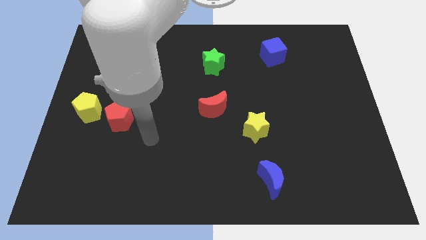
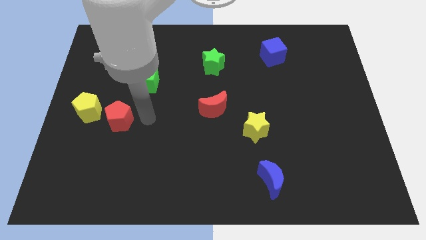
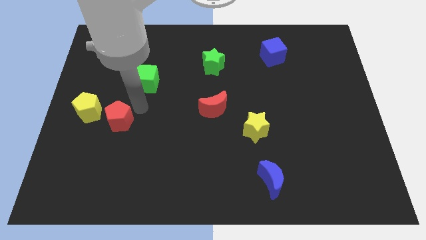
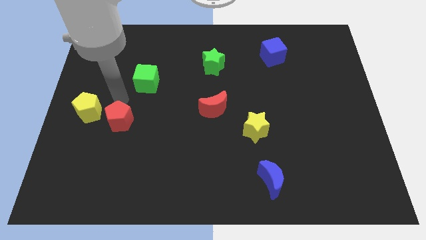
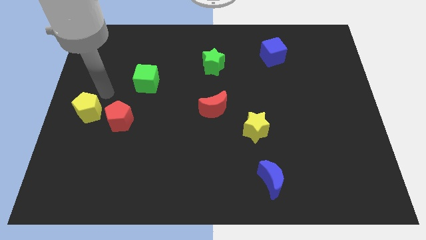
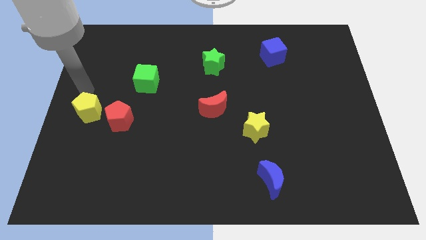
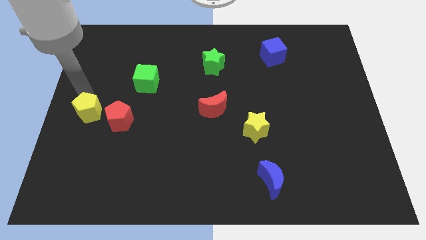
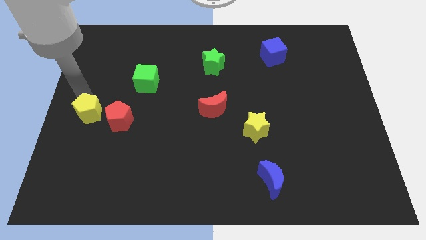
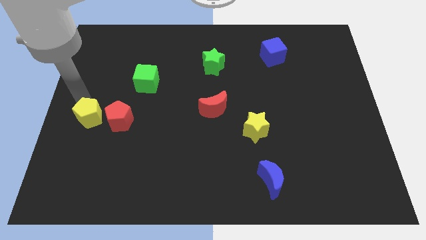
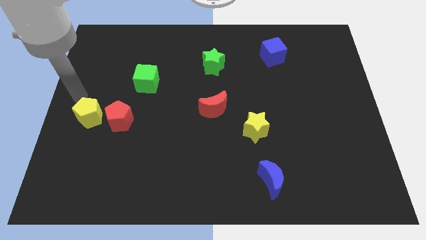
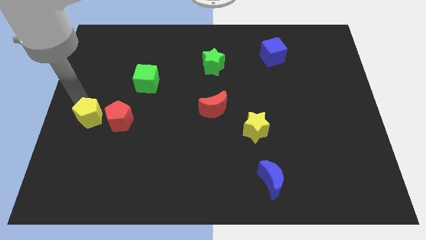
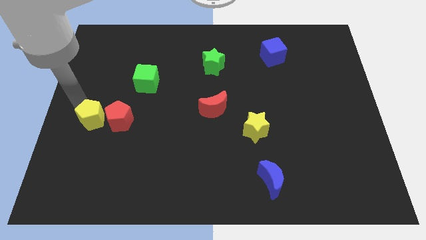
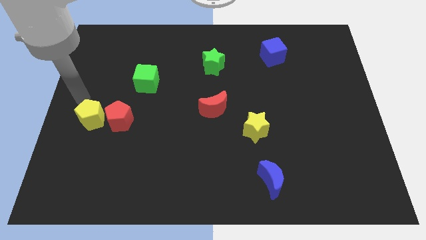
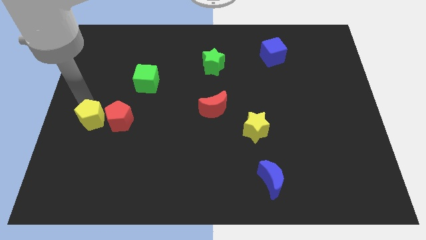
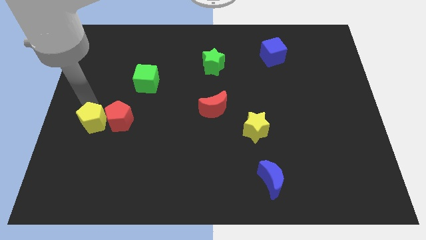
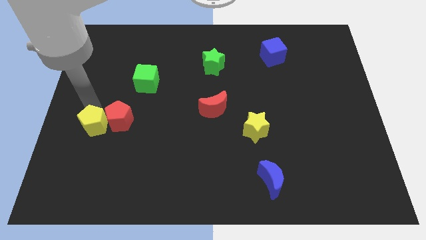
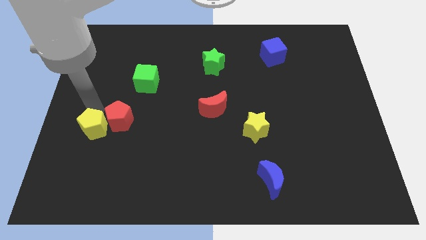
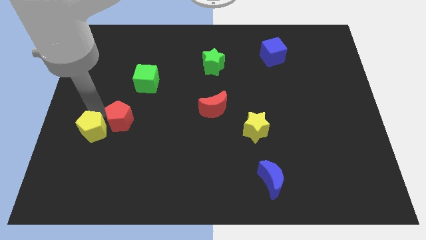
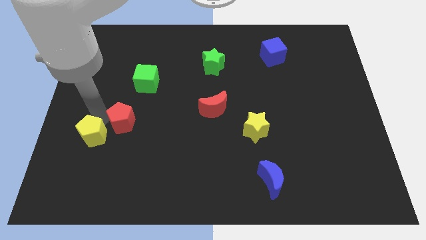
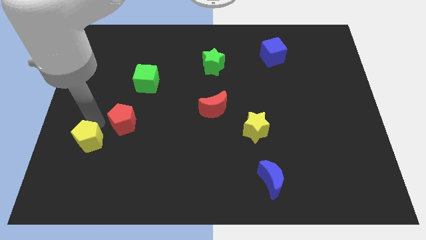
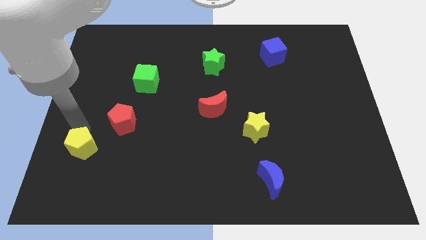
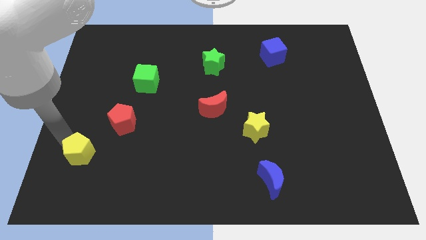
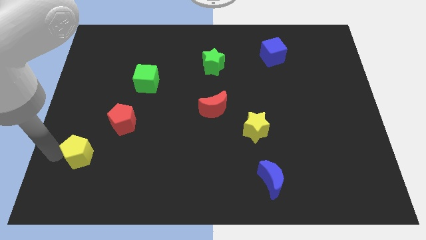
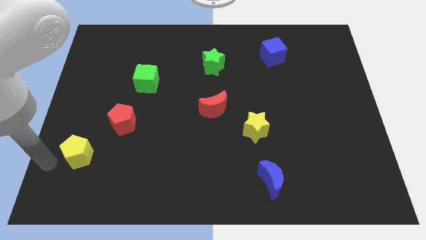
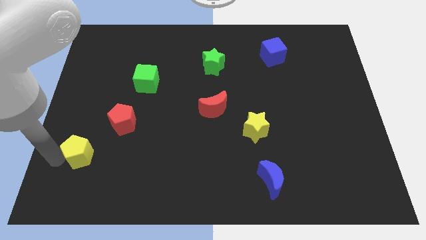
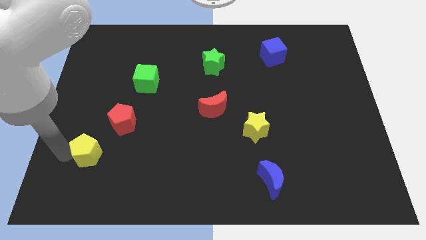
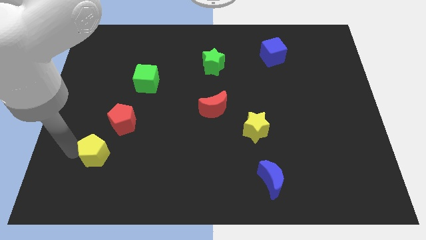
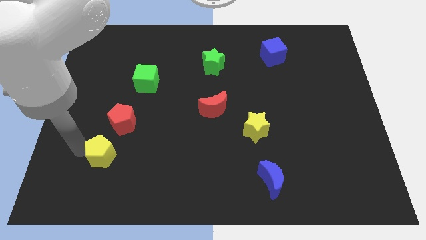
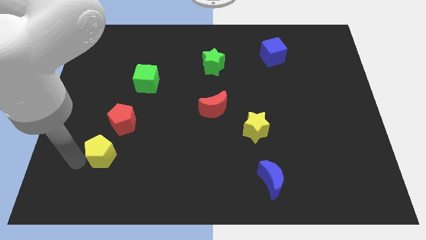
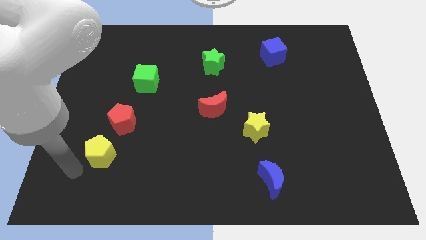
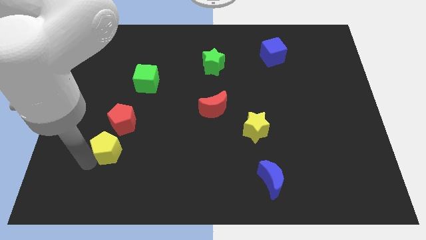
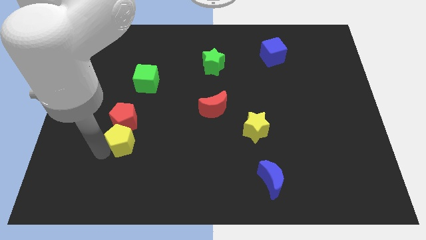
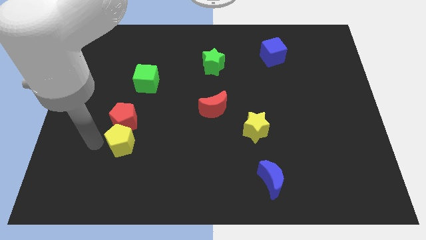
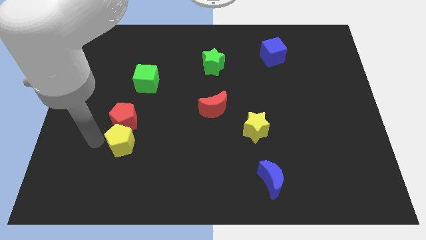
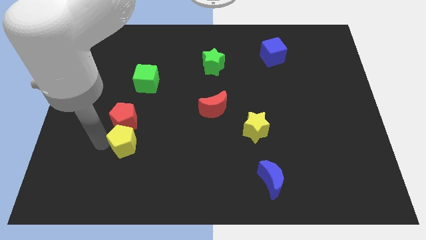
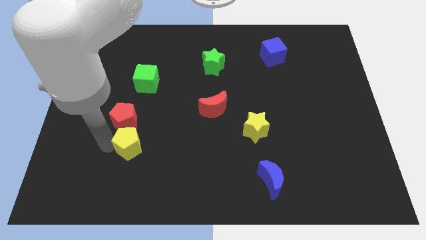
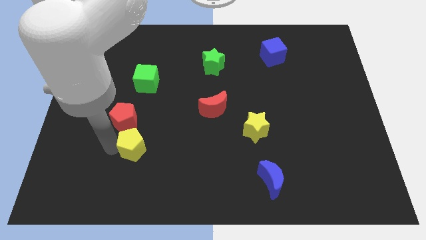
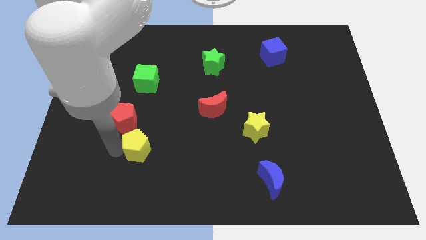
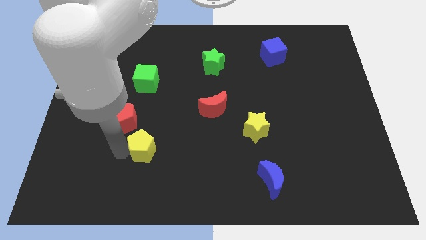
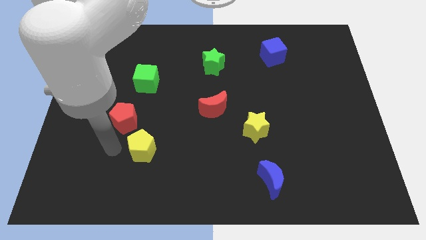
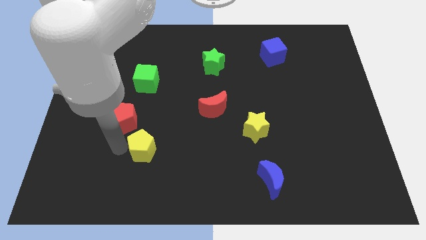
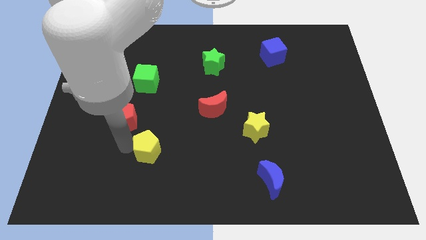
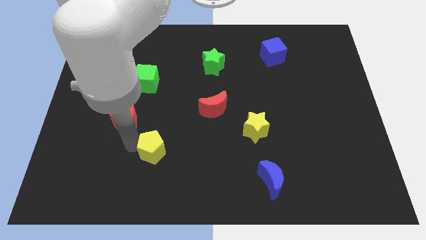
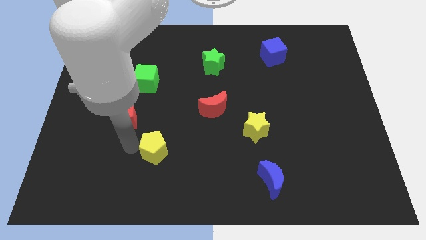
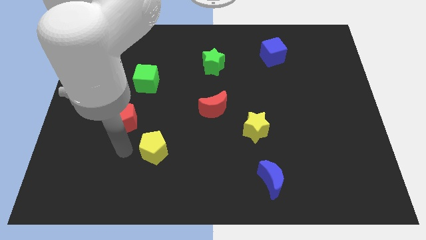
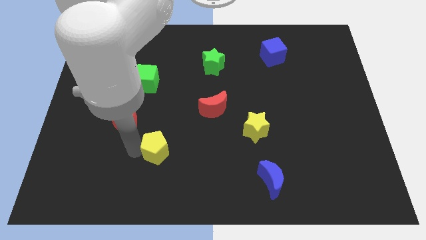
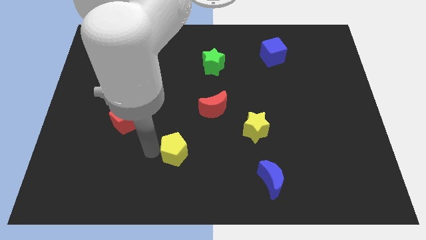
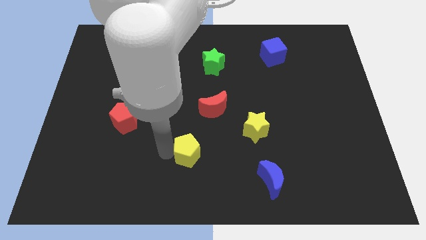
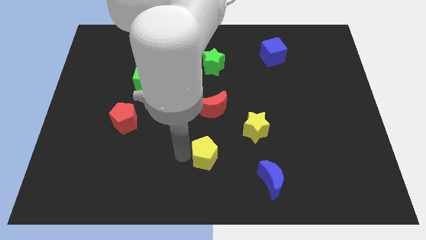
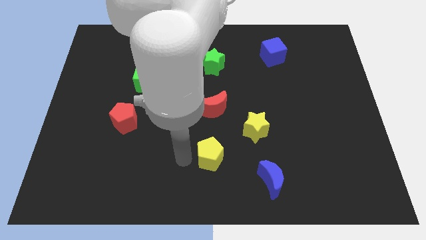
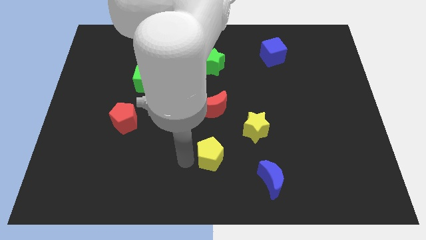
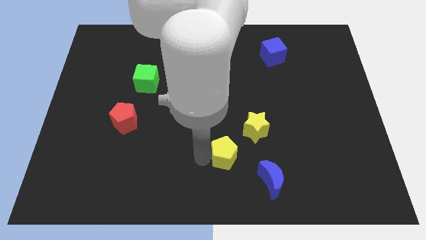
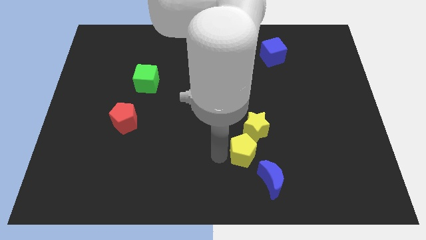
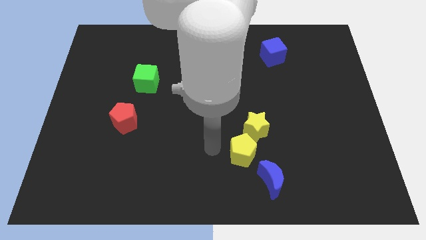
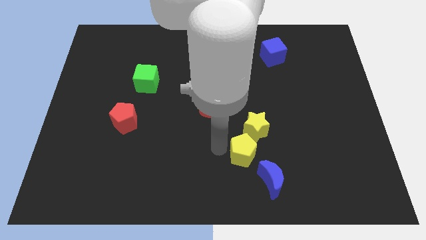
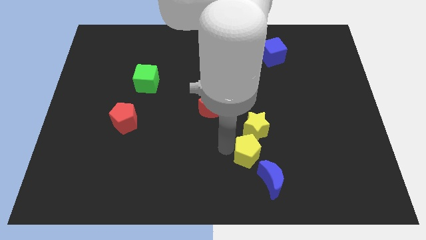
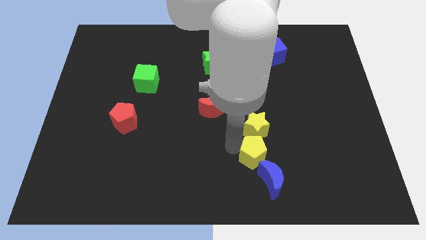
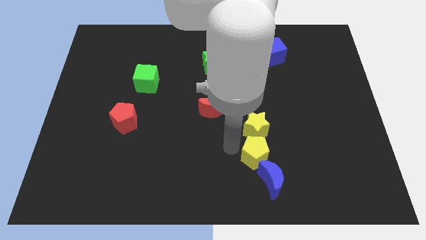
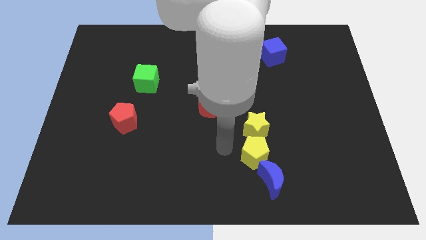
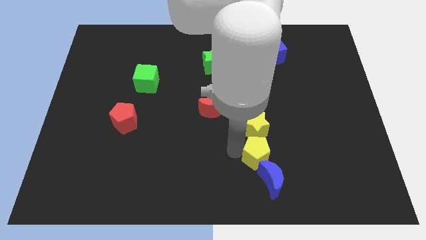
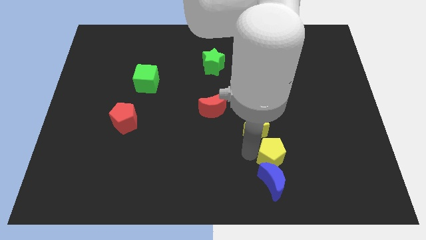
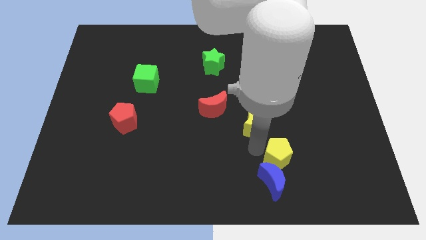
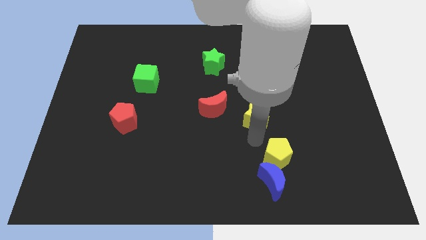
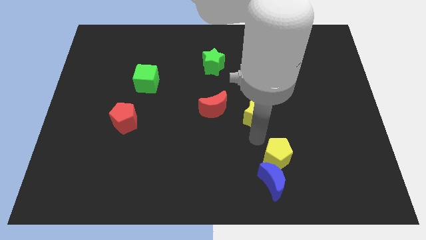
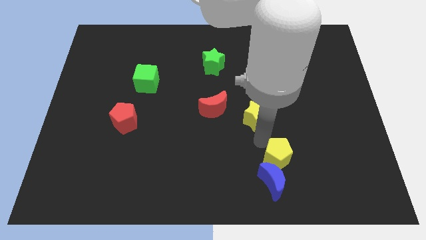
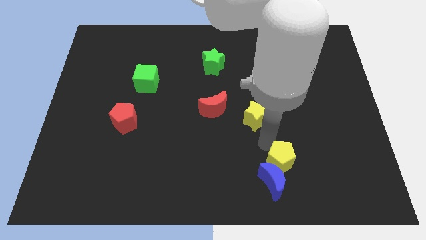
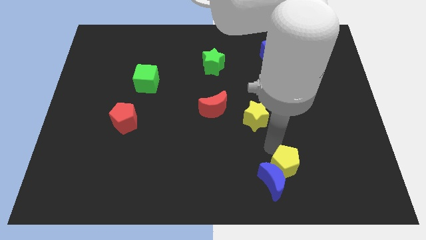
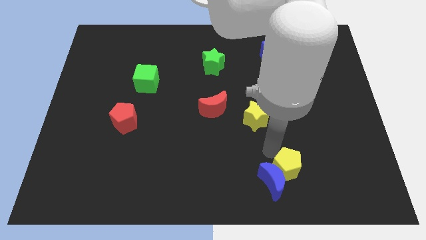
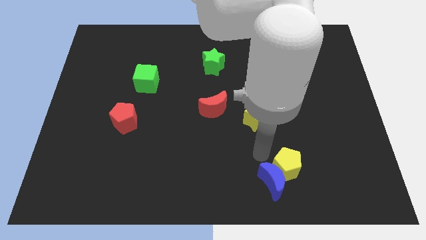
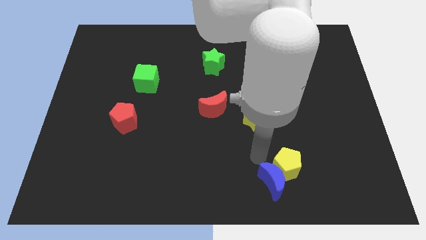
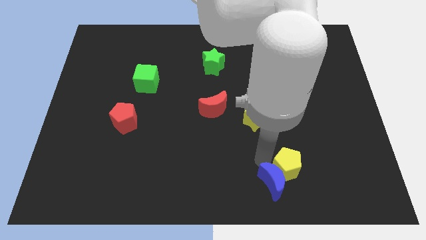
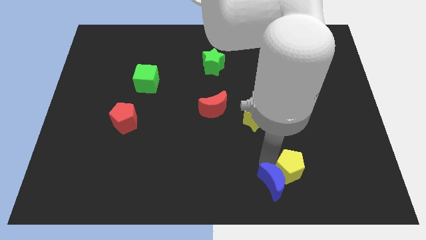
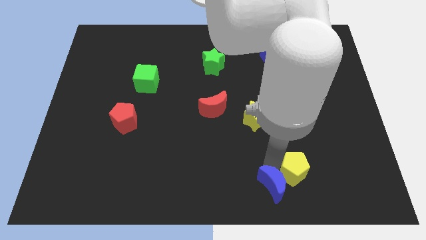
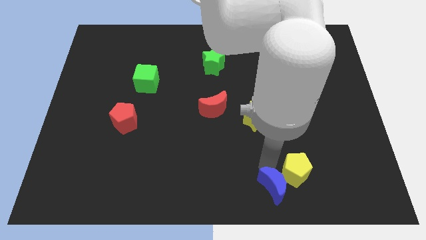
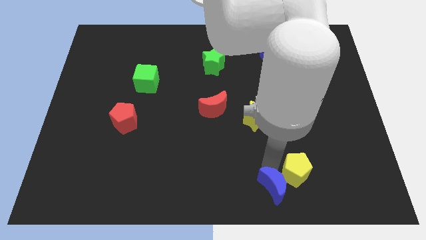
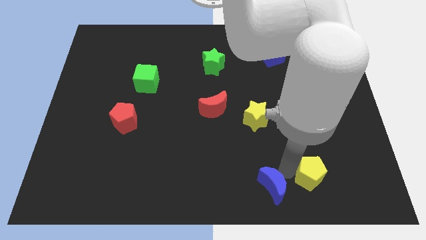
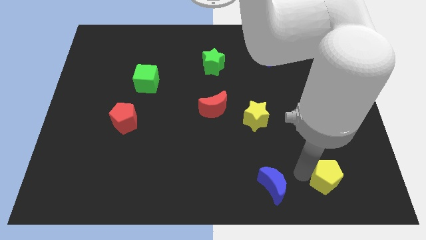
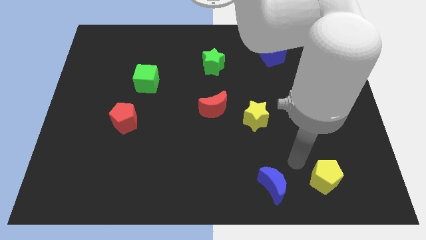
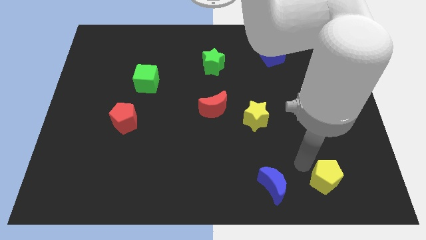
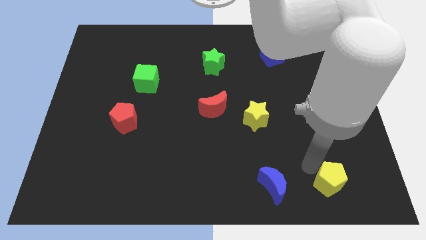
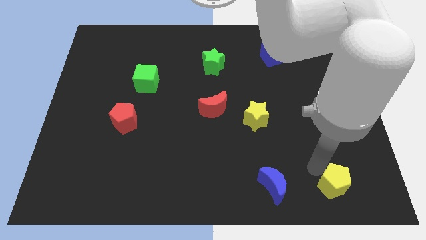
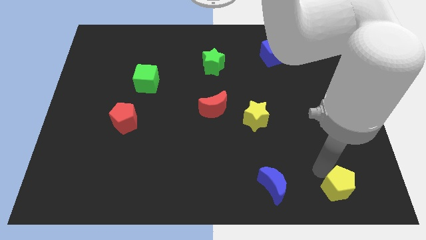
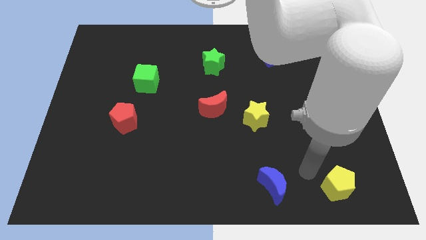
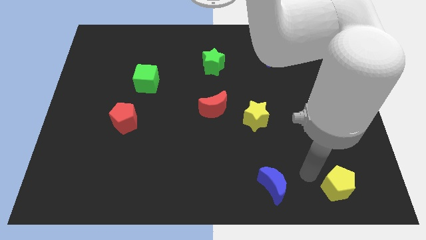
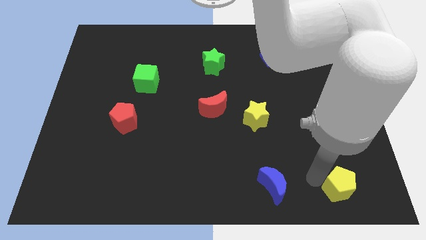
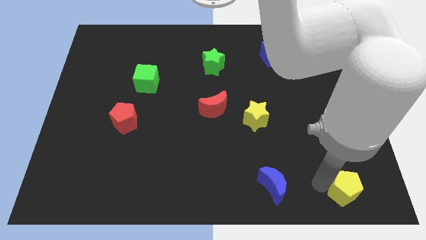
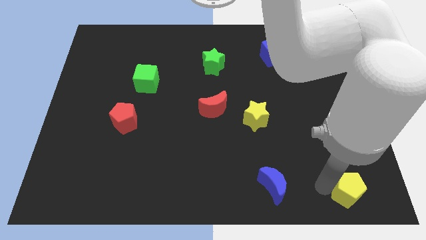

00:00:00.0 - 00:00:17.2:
move the yellow pentagon to the bottom right of the board
